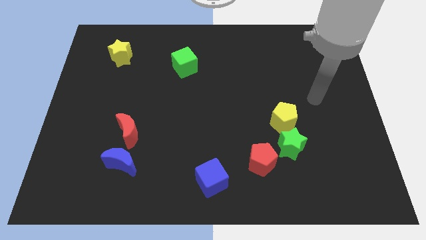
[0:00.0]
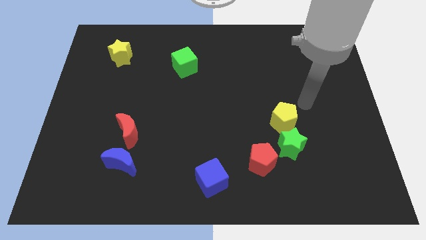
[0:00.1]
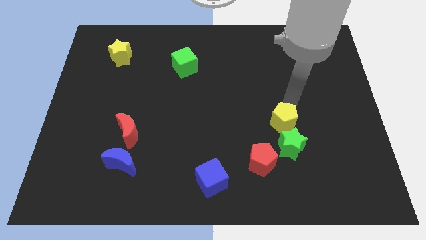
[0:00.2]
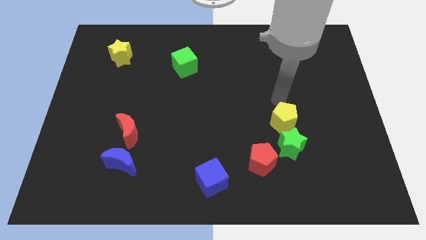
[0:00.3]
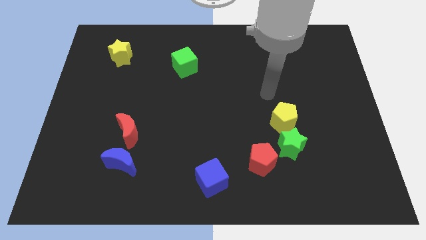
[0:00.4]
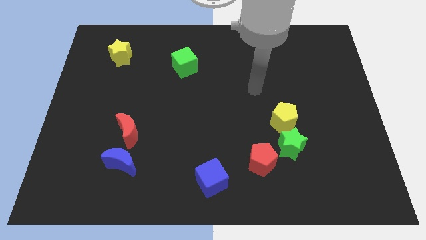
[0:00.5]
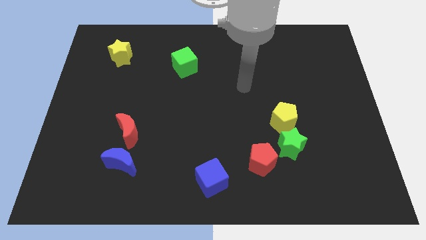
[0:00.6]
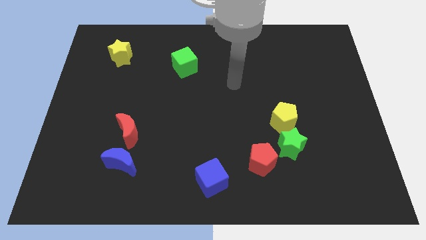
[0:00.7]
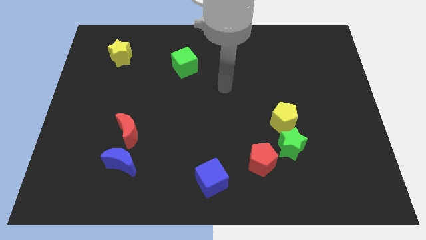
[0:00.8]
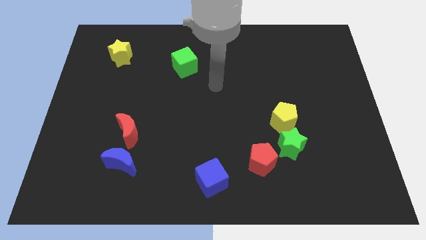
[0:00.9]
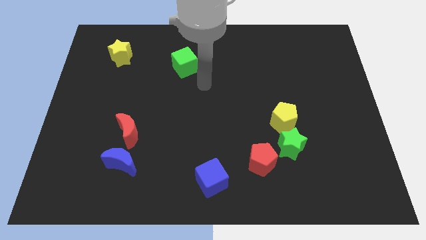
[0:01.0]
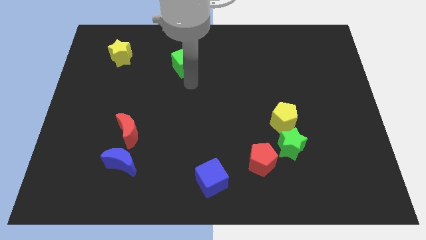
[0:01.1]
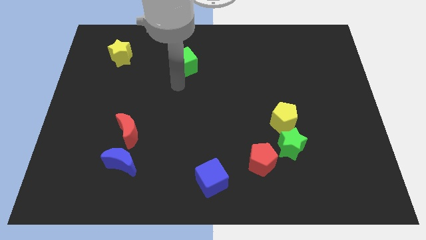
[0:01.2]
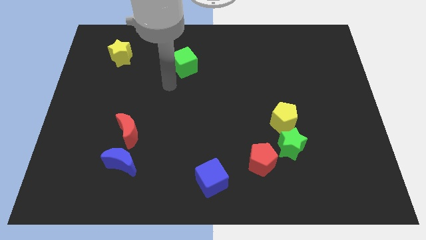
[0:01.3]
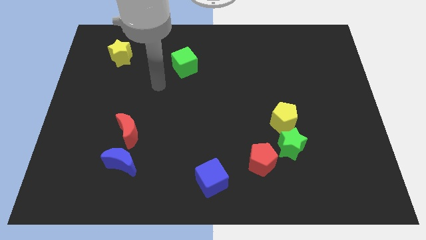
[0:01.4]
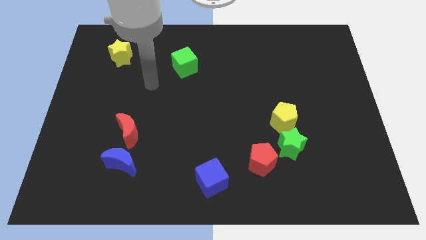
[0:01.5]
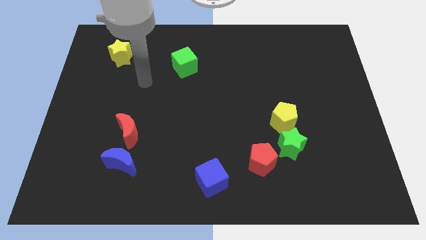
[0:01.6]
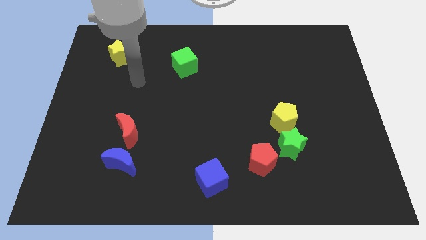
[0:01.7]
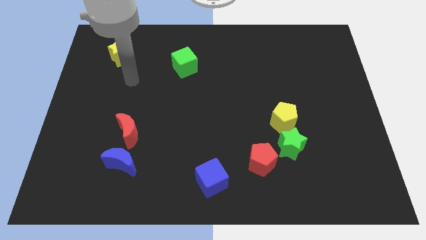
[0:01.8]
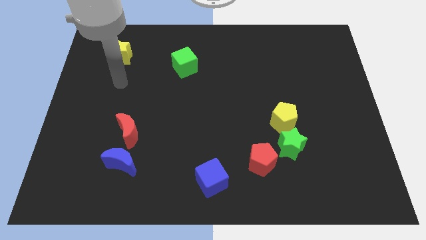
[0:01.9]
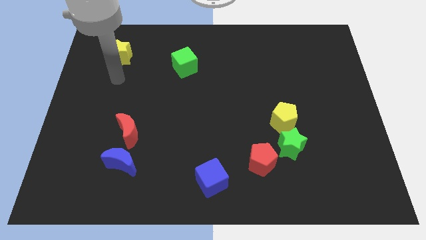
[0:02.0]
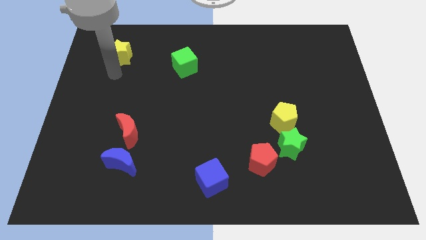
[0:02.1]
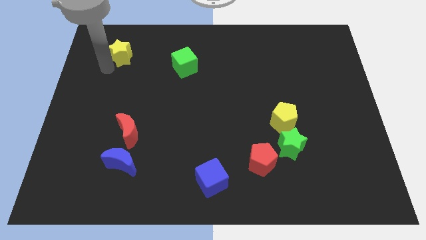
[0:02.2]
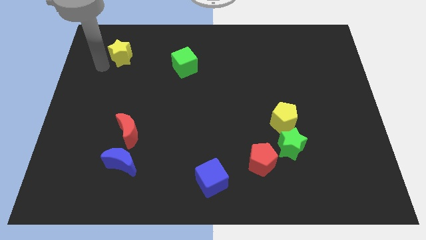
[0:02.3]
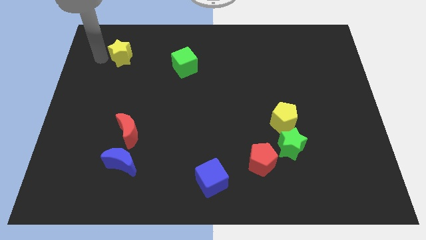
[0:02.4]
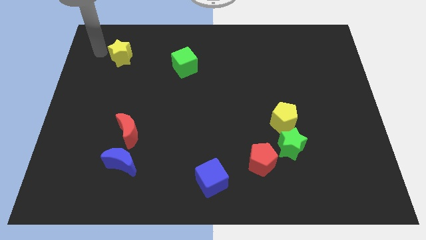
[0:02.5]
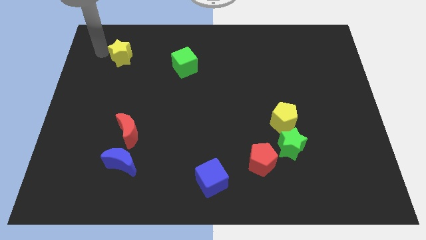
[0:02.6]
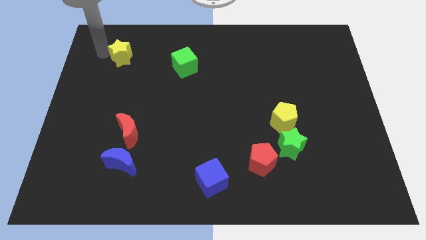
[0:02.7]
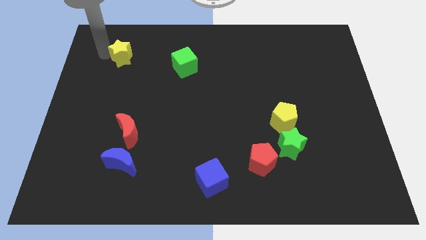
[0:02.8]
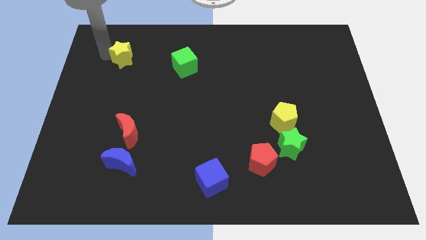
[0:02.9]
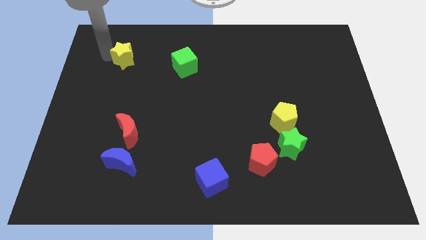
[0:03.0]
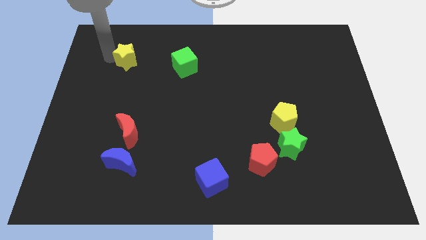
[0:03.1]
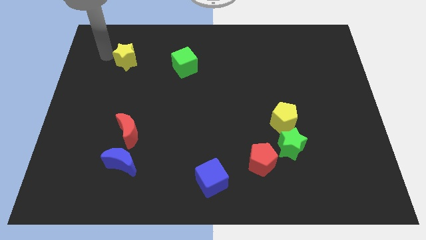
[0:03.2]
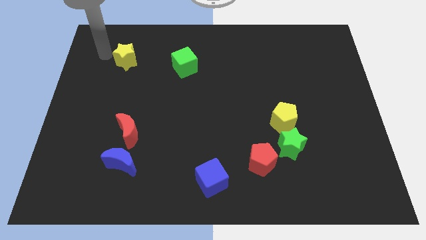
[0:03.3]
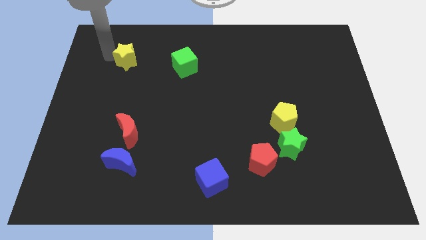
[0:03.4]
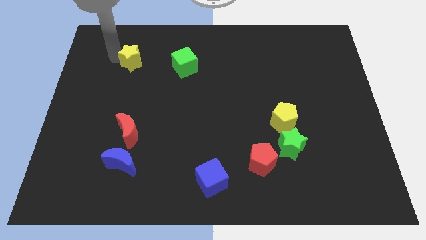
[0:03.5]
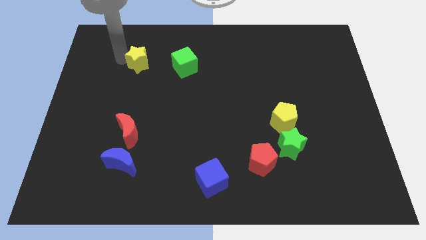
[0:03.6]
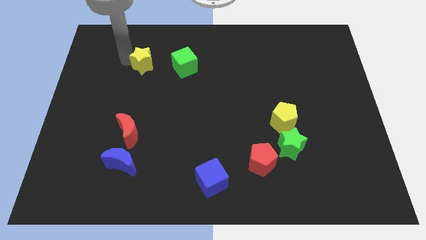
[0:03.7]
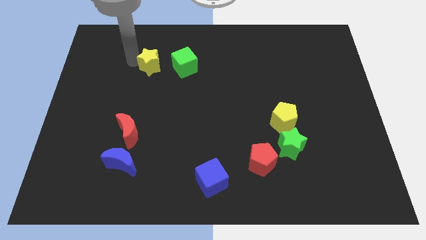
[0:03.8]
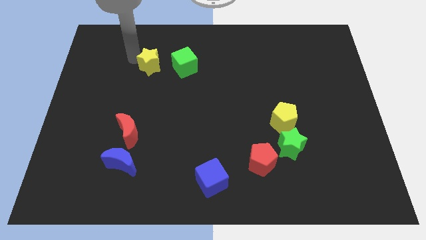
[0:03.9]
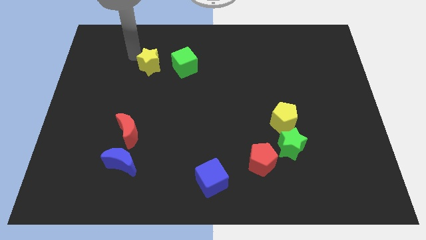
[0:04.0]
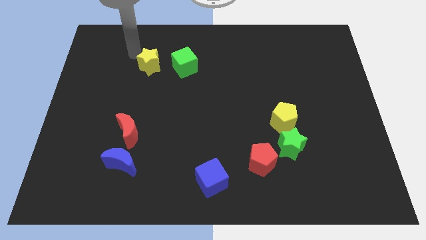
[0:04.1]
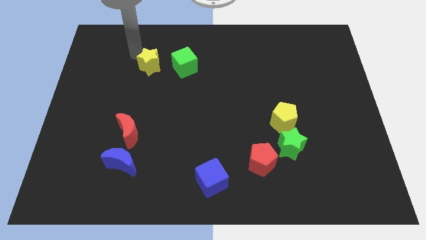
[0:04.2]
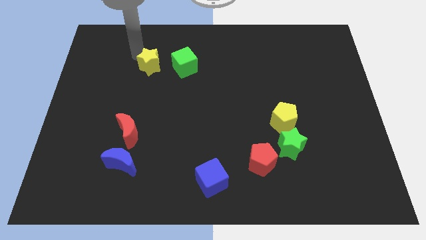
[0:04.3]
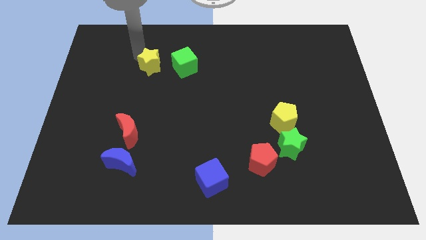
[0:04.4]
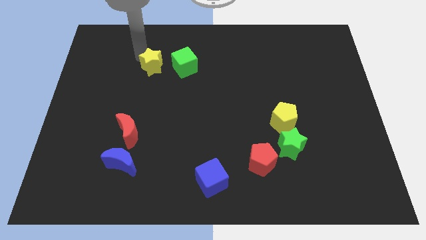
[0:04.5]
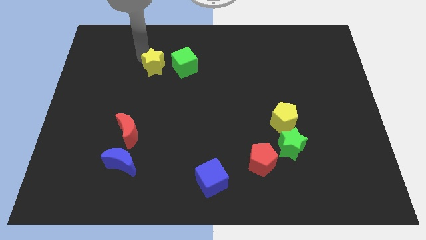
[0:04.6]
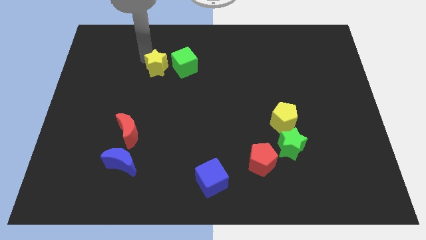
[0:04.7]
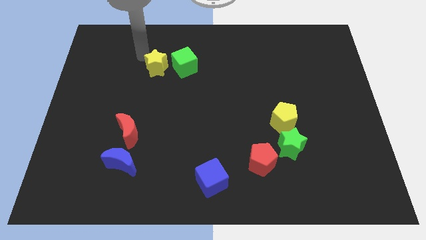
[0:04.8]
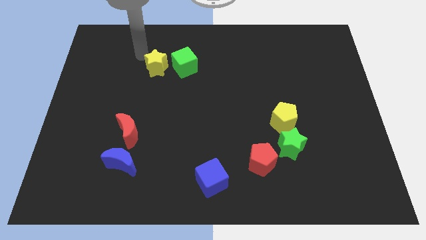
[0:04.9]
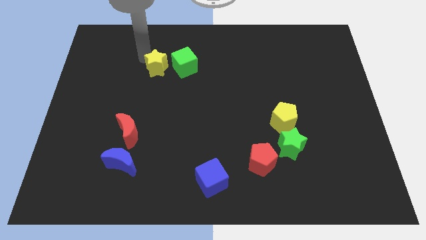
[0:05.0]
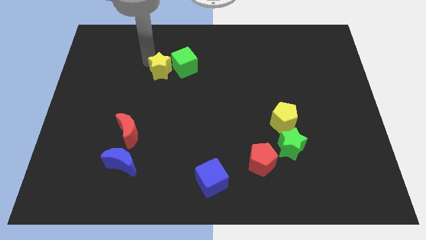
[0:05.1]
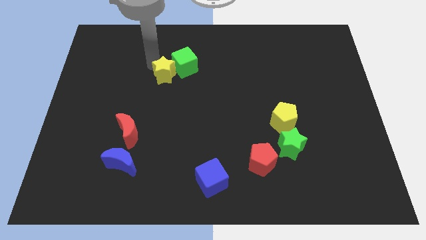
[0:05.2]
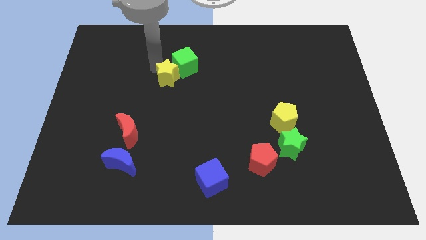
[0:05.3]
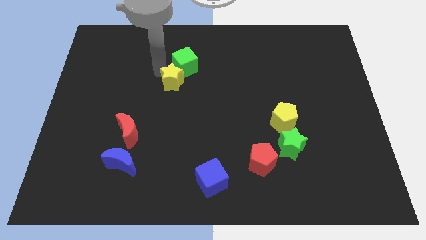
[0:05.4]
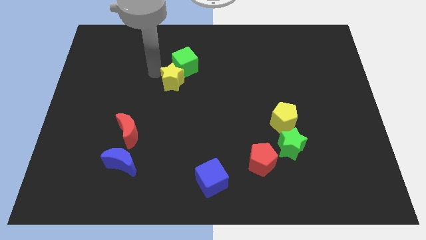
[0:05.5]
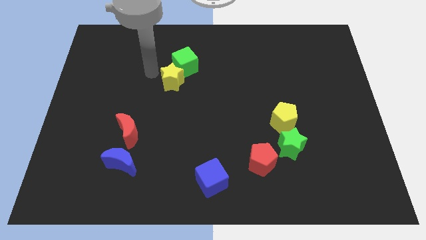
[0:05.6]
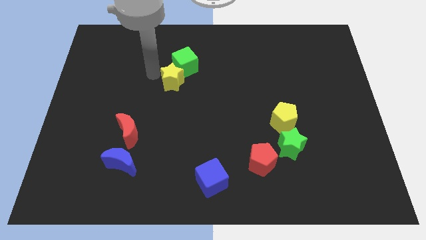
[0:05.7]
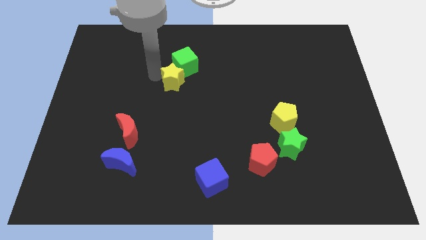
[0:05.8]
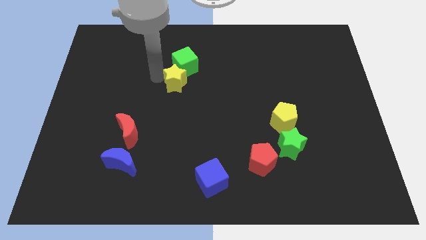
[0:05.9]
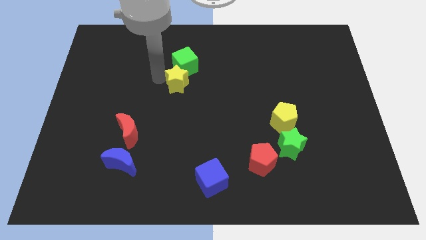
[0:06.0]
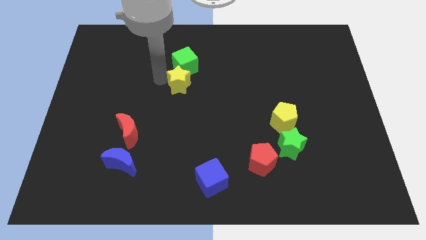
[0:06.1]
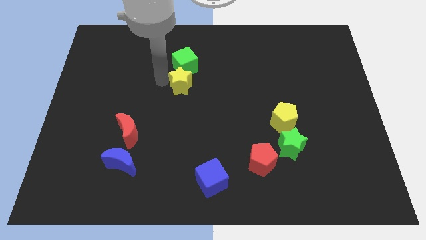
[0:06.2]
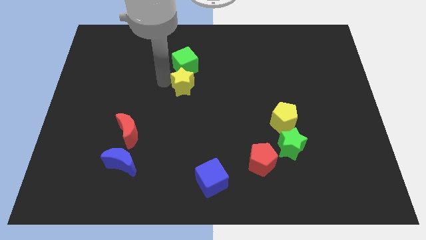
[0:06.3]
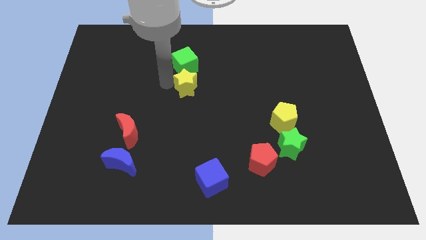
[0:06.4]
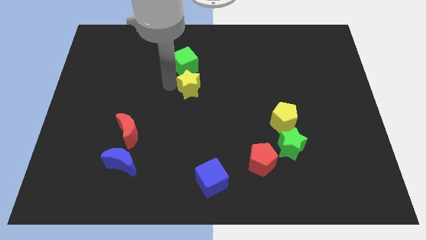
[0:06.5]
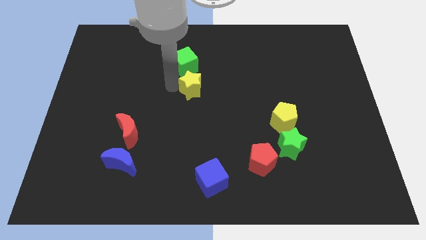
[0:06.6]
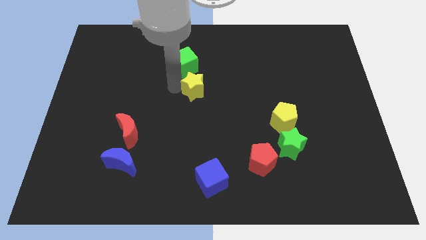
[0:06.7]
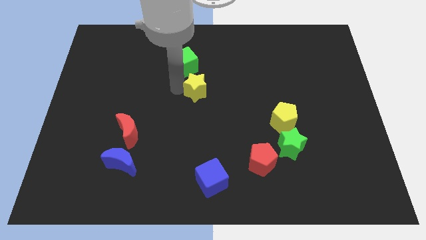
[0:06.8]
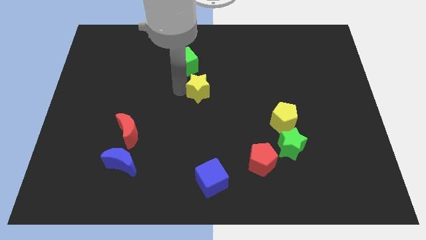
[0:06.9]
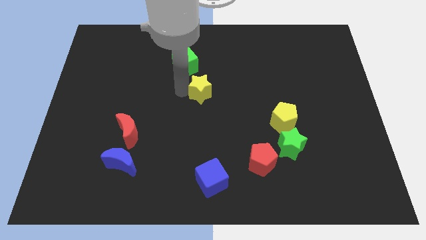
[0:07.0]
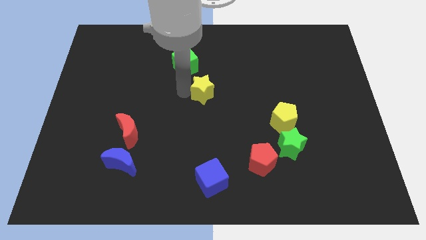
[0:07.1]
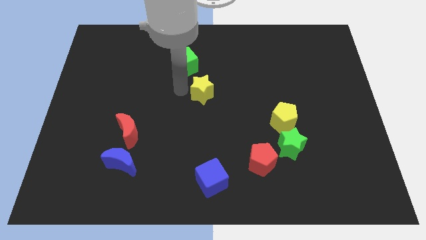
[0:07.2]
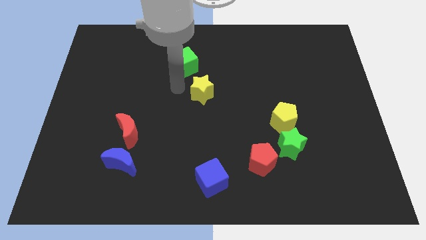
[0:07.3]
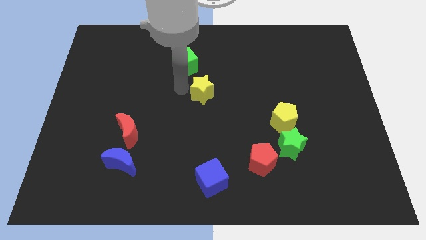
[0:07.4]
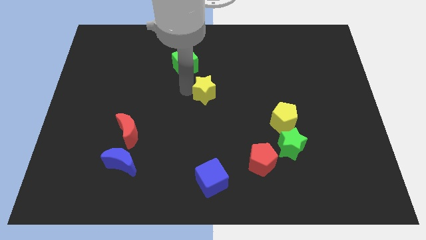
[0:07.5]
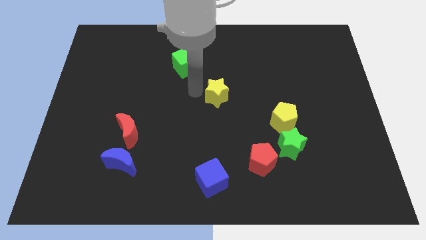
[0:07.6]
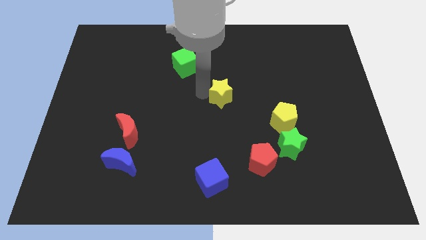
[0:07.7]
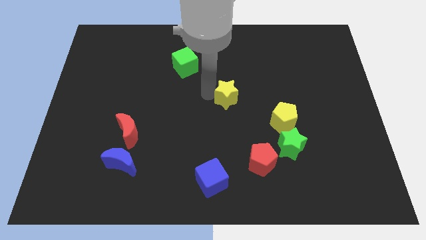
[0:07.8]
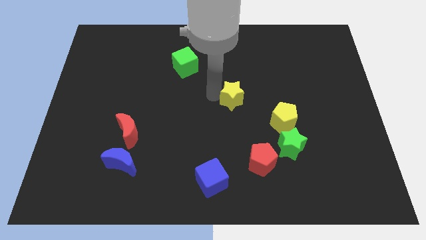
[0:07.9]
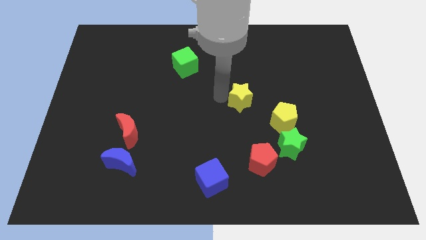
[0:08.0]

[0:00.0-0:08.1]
move the yellow star to the top left side of the yellow pentagon
